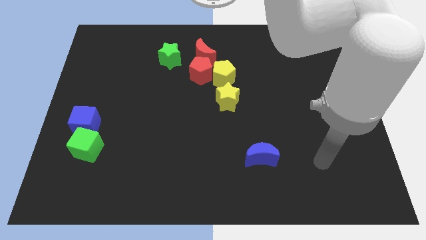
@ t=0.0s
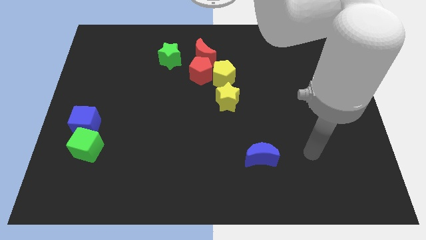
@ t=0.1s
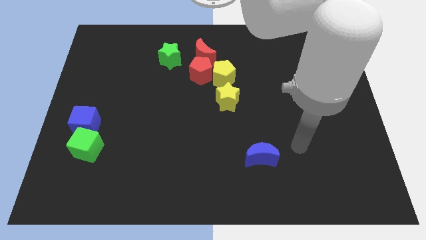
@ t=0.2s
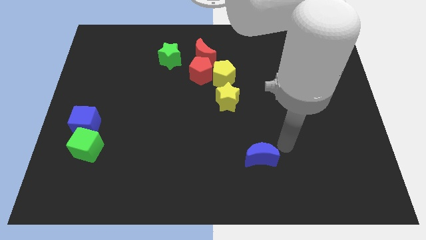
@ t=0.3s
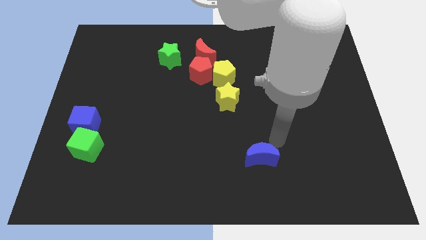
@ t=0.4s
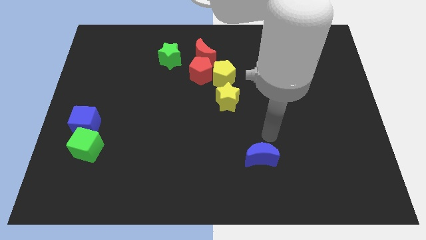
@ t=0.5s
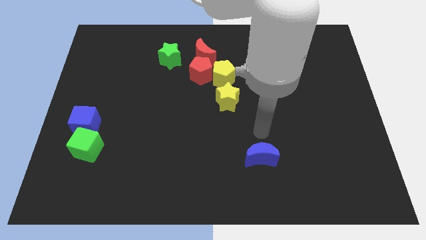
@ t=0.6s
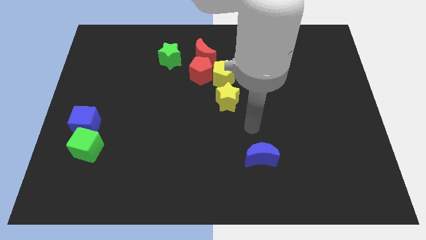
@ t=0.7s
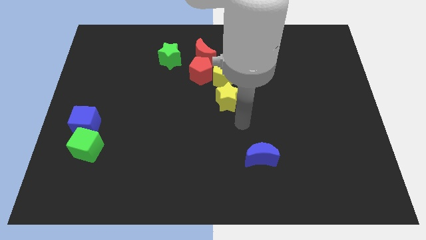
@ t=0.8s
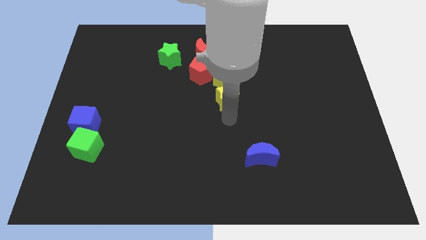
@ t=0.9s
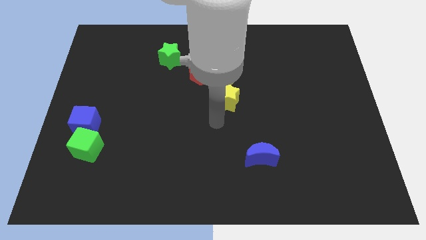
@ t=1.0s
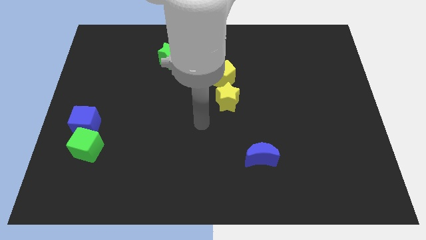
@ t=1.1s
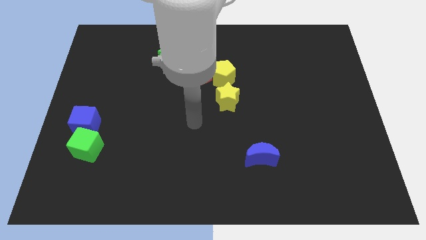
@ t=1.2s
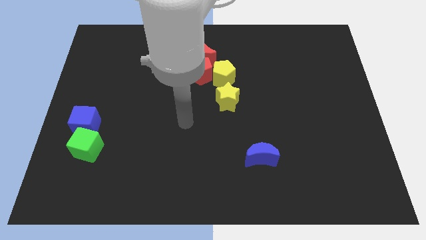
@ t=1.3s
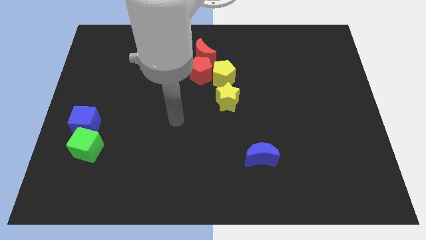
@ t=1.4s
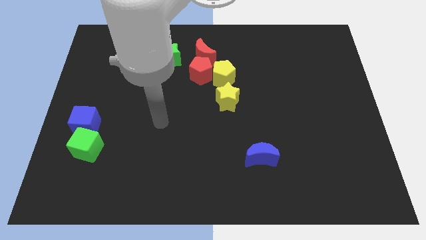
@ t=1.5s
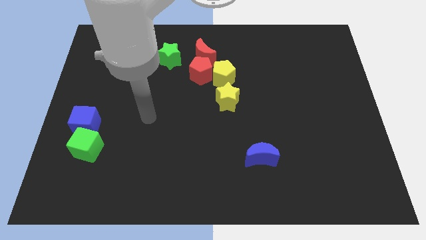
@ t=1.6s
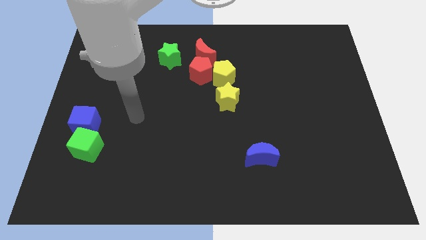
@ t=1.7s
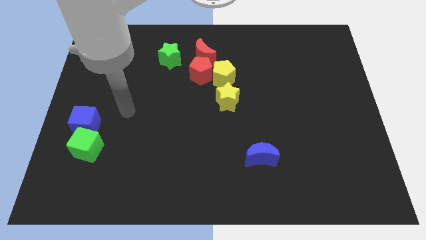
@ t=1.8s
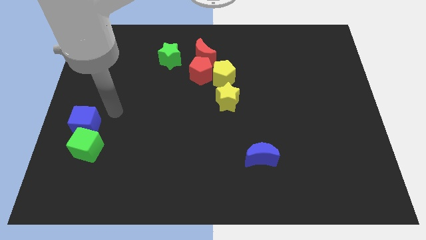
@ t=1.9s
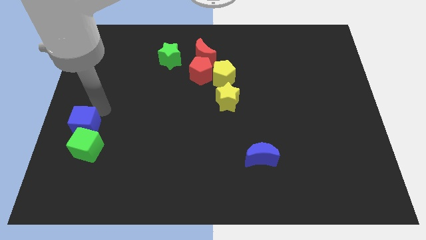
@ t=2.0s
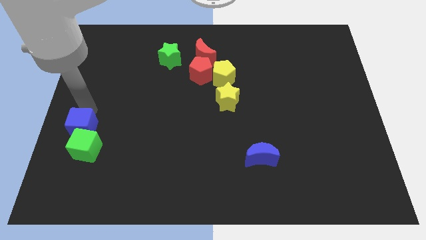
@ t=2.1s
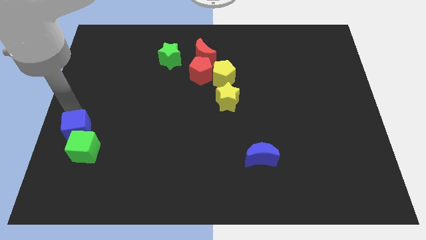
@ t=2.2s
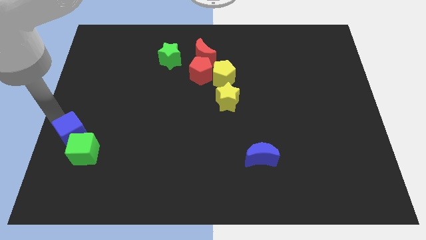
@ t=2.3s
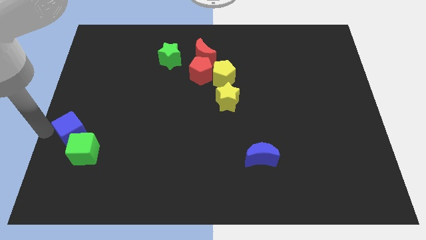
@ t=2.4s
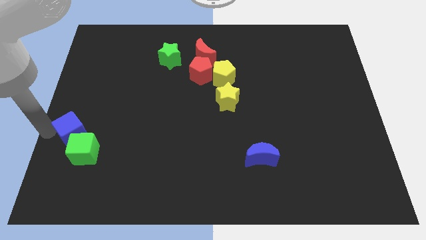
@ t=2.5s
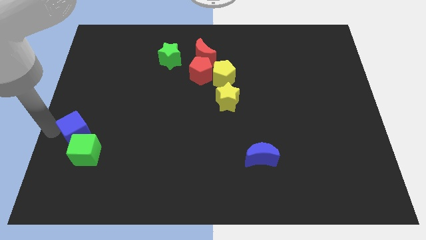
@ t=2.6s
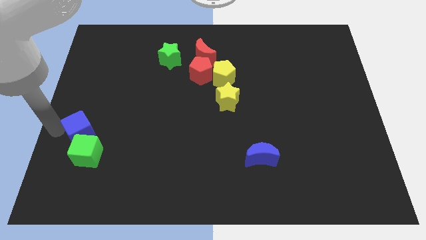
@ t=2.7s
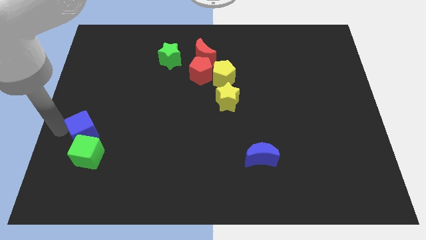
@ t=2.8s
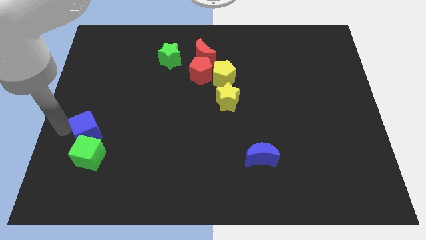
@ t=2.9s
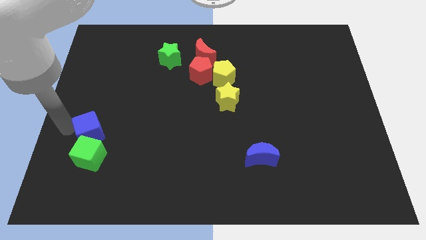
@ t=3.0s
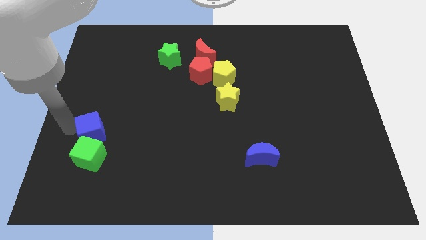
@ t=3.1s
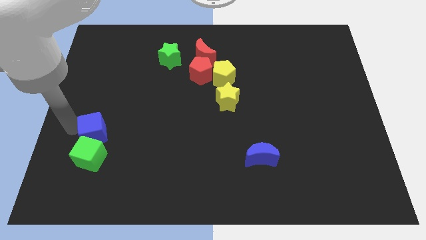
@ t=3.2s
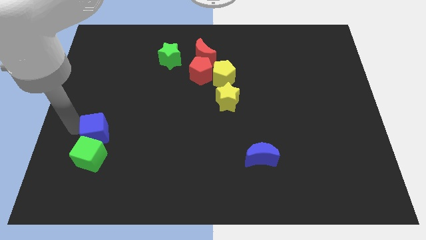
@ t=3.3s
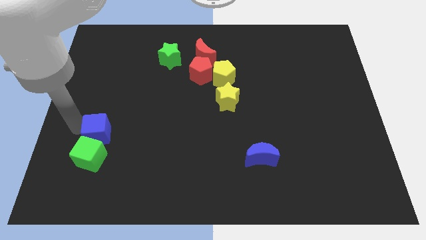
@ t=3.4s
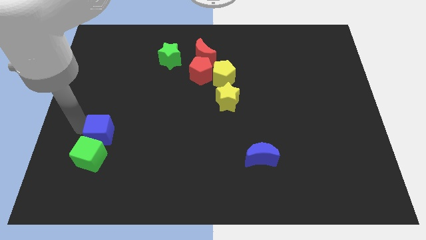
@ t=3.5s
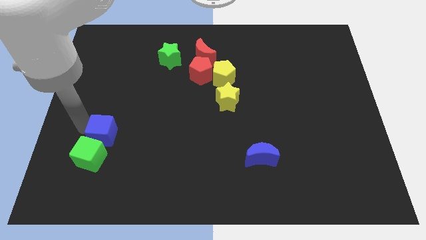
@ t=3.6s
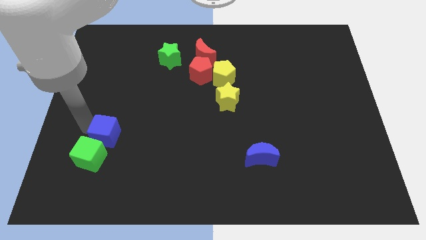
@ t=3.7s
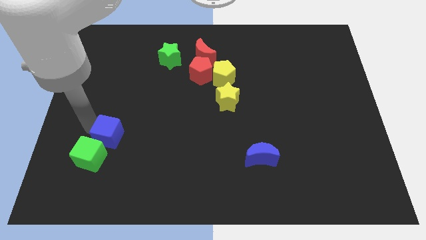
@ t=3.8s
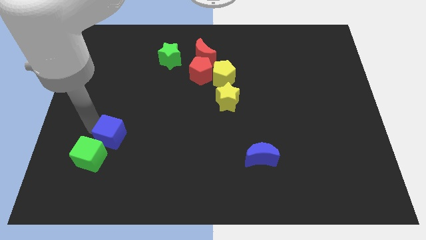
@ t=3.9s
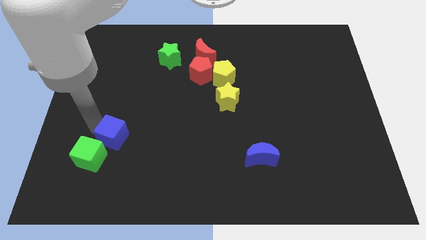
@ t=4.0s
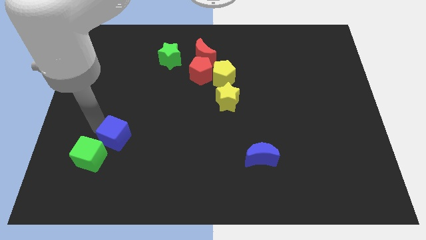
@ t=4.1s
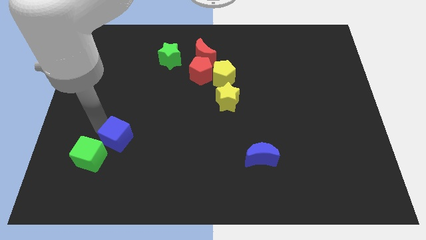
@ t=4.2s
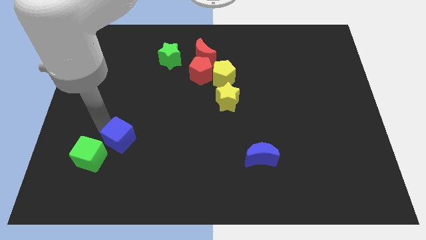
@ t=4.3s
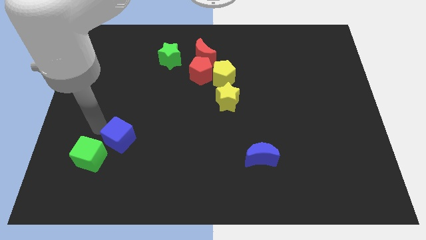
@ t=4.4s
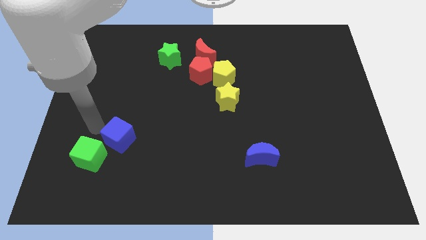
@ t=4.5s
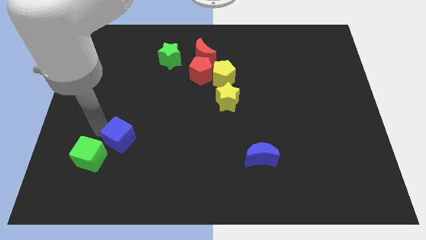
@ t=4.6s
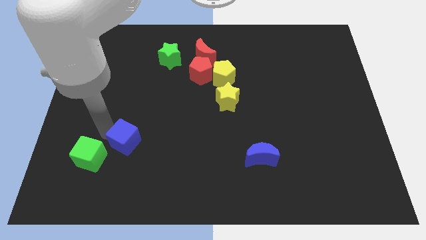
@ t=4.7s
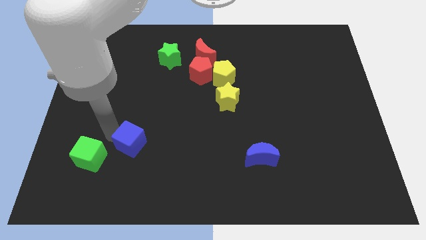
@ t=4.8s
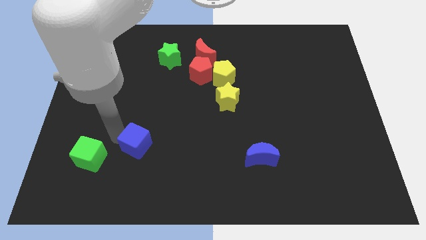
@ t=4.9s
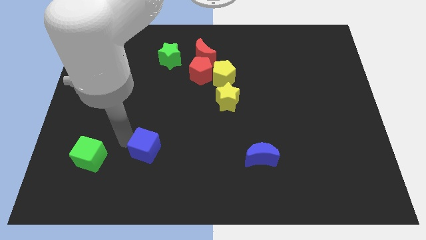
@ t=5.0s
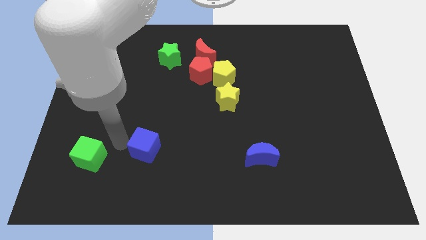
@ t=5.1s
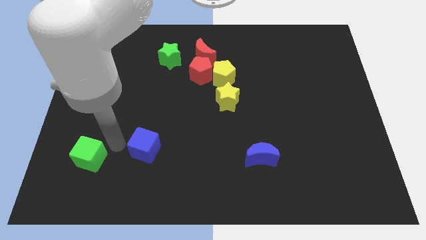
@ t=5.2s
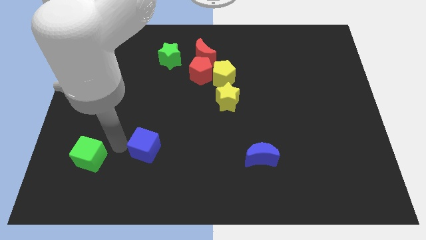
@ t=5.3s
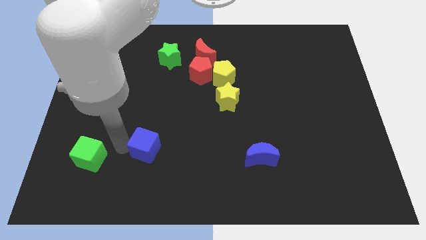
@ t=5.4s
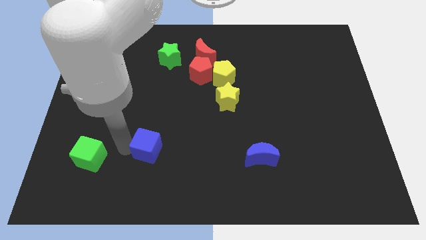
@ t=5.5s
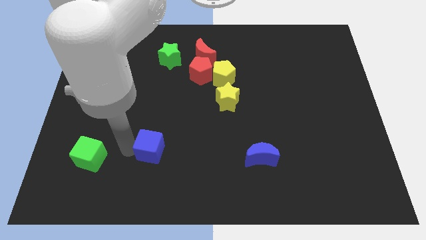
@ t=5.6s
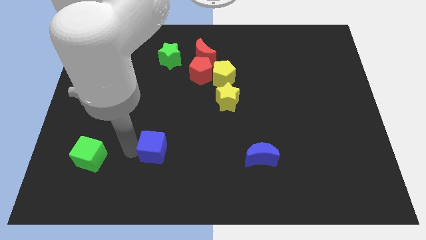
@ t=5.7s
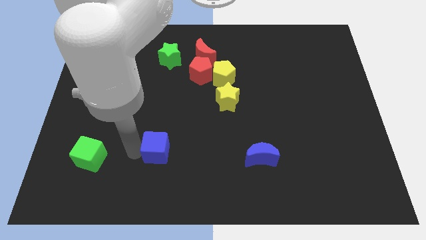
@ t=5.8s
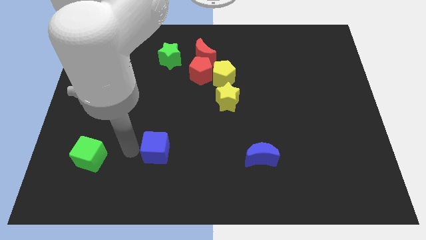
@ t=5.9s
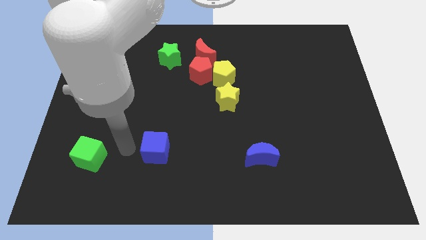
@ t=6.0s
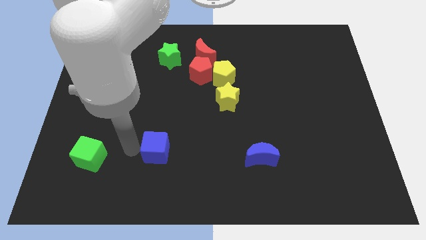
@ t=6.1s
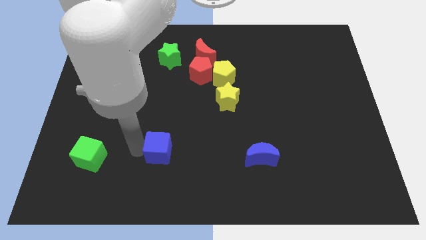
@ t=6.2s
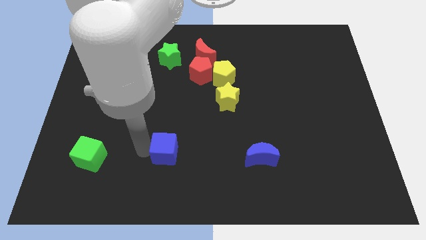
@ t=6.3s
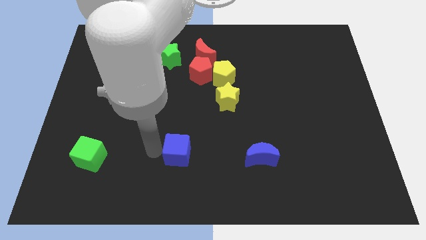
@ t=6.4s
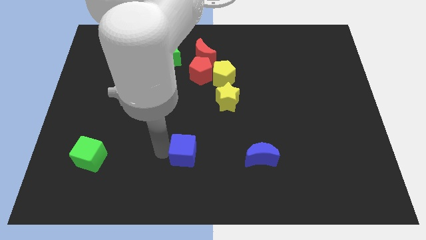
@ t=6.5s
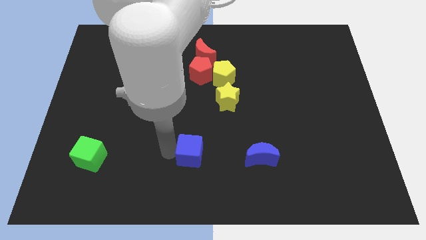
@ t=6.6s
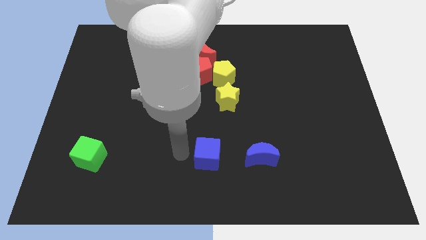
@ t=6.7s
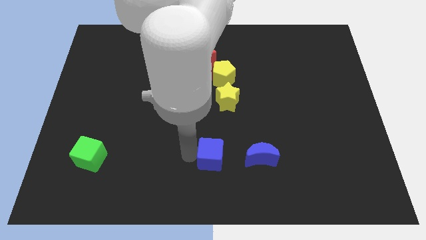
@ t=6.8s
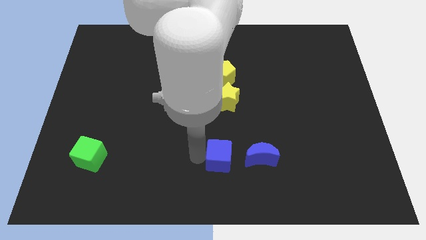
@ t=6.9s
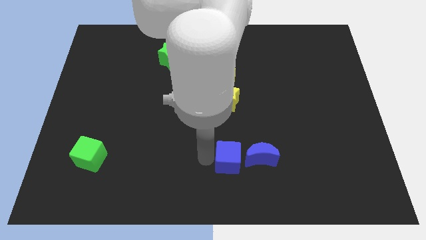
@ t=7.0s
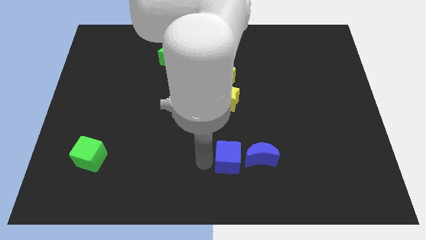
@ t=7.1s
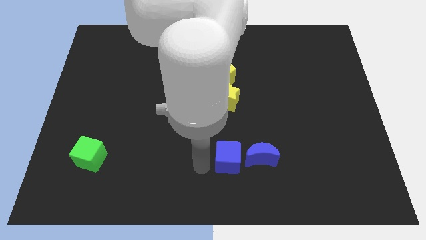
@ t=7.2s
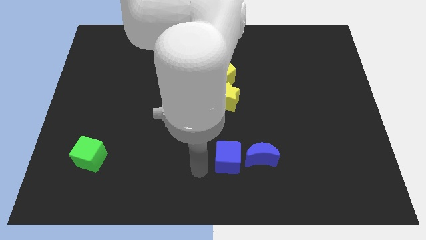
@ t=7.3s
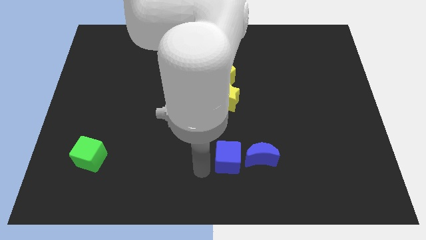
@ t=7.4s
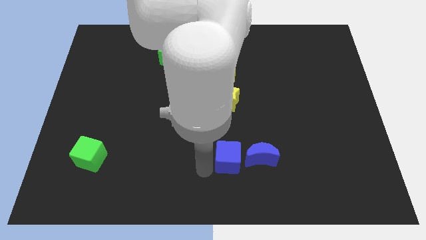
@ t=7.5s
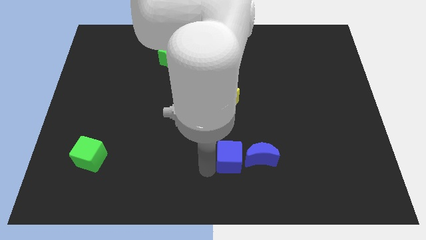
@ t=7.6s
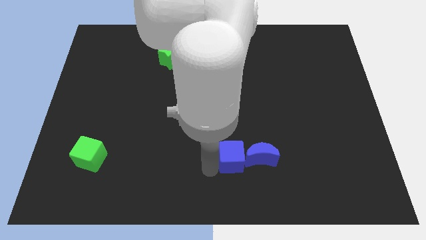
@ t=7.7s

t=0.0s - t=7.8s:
move the blue cube towards the blue moon
